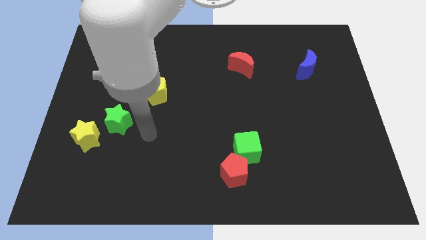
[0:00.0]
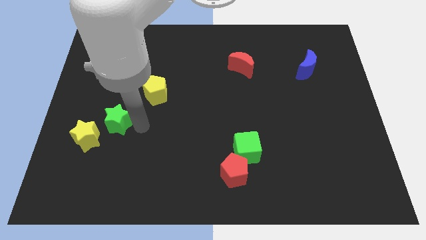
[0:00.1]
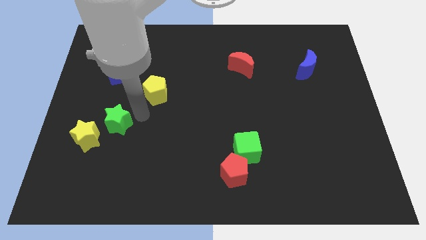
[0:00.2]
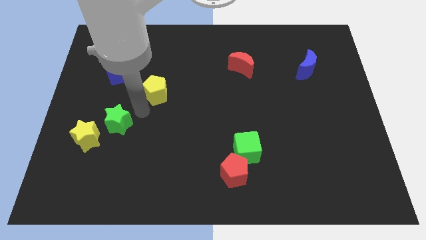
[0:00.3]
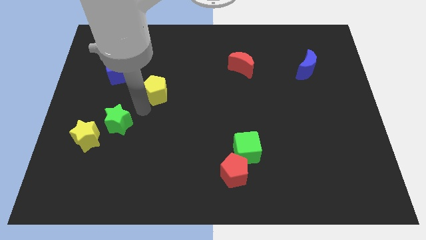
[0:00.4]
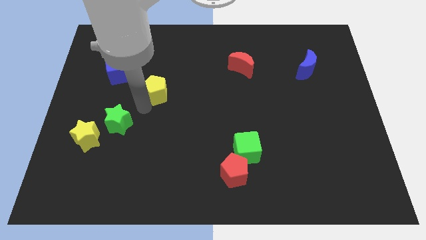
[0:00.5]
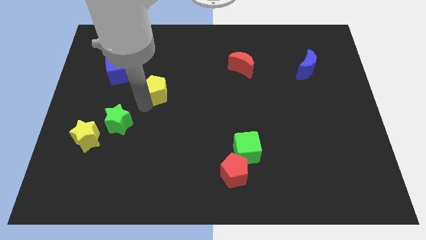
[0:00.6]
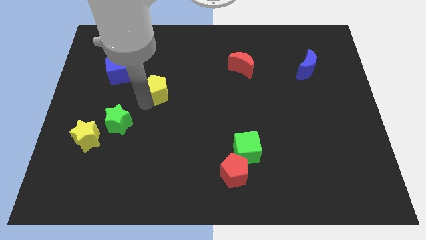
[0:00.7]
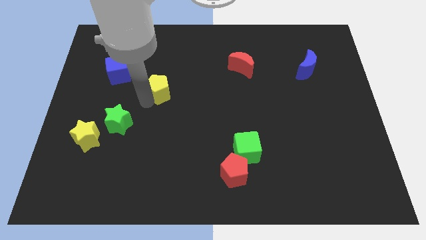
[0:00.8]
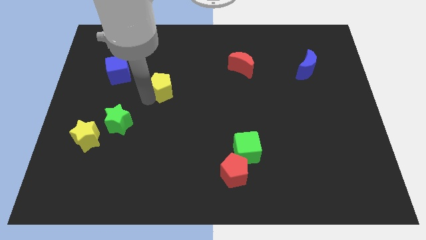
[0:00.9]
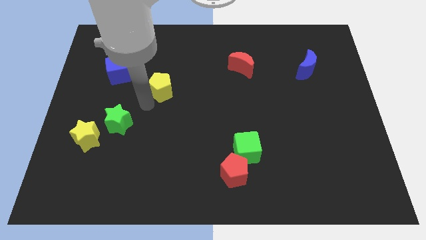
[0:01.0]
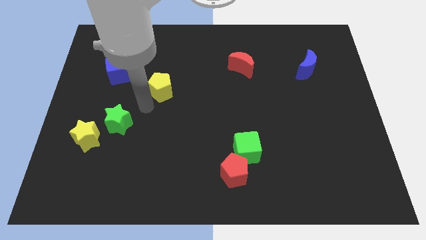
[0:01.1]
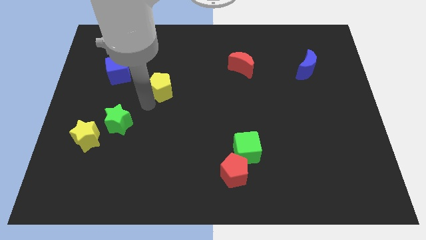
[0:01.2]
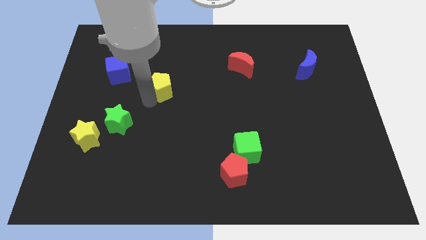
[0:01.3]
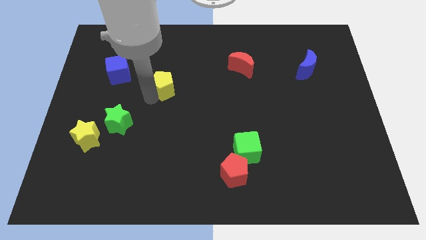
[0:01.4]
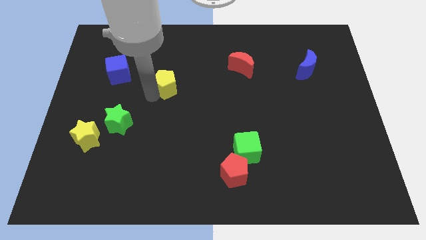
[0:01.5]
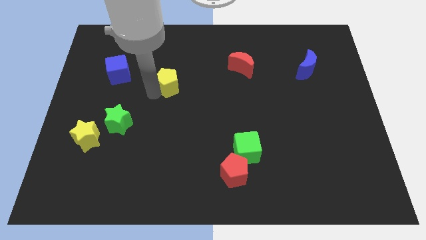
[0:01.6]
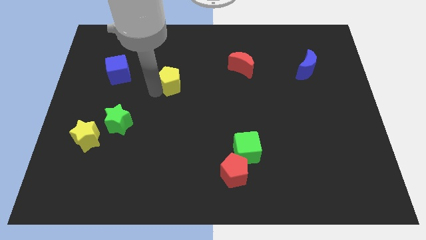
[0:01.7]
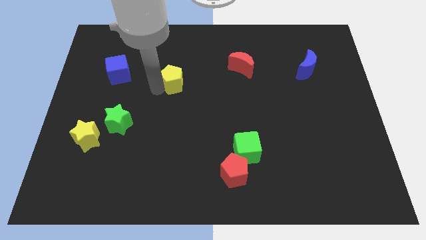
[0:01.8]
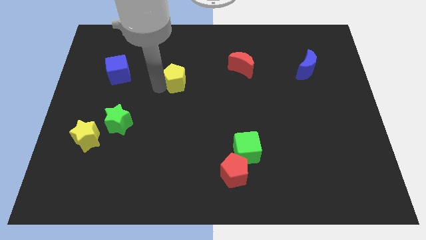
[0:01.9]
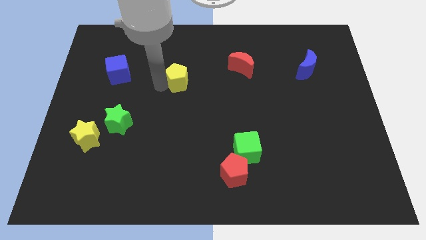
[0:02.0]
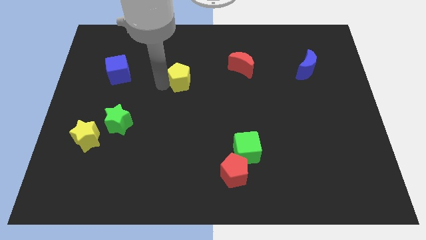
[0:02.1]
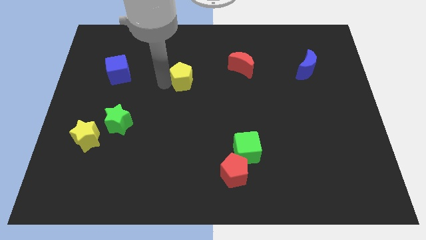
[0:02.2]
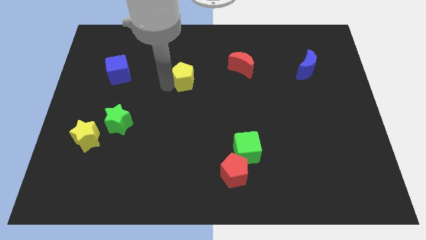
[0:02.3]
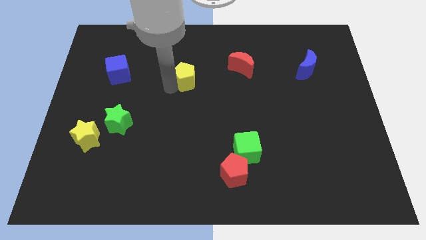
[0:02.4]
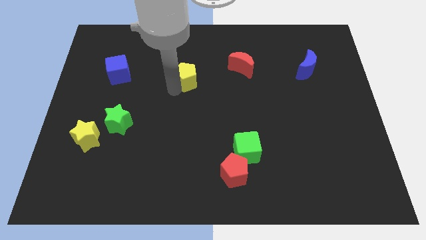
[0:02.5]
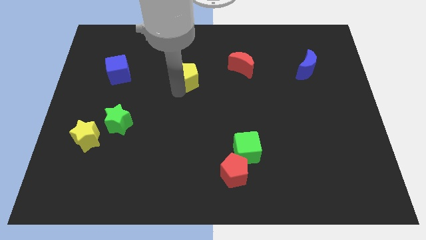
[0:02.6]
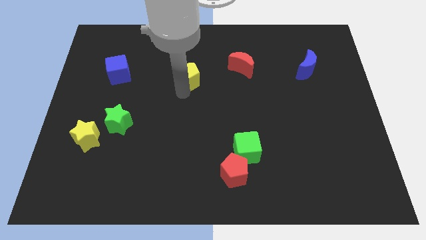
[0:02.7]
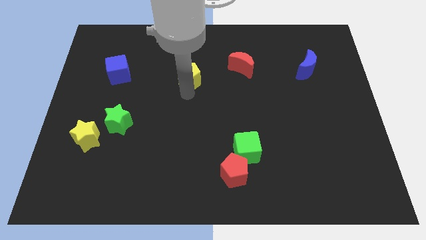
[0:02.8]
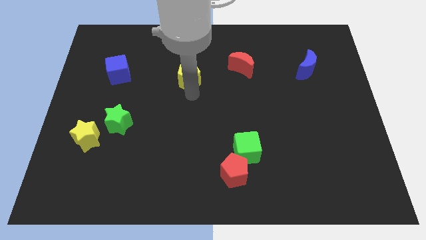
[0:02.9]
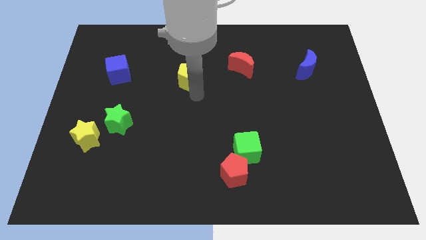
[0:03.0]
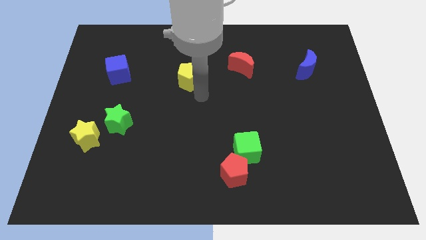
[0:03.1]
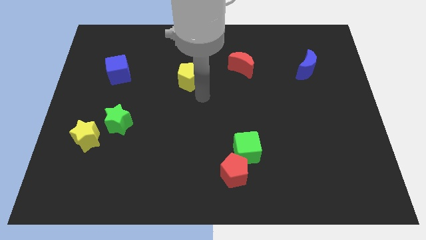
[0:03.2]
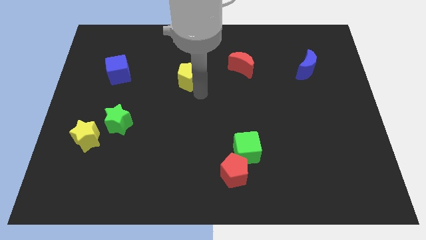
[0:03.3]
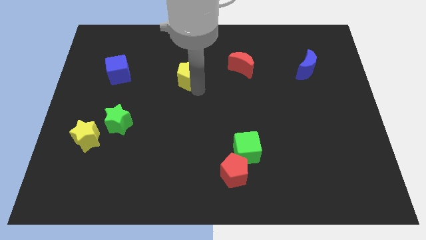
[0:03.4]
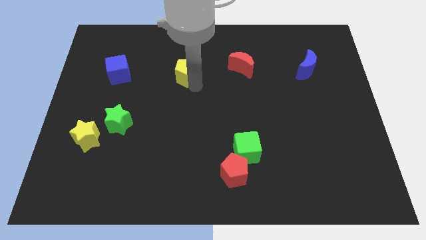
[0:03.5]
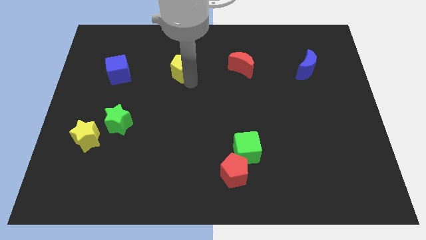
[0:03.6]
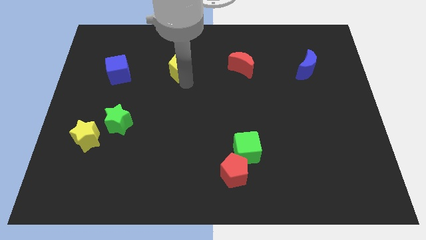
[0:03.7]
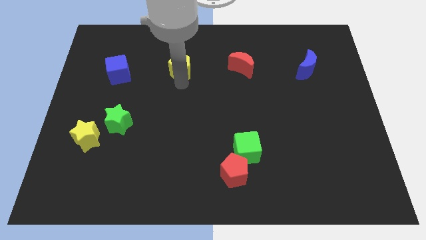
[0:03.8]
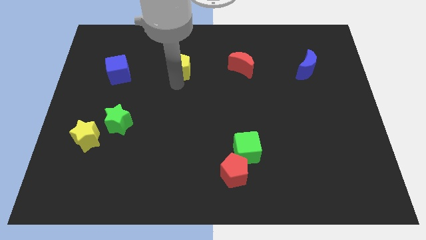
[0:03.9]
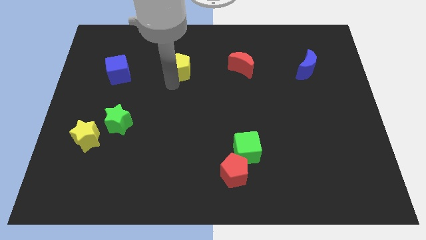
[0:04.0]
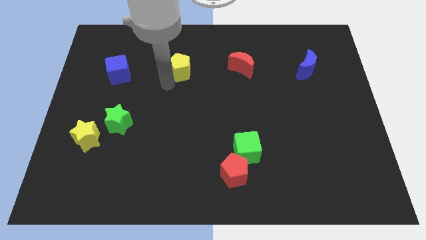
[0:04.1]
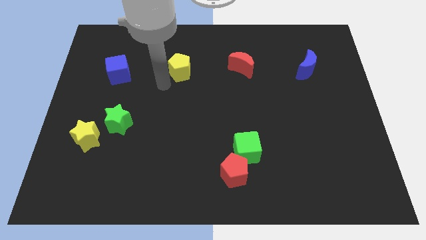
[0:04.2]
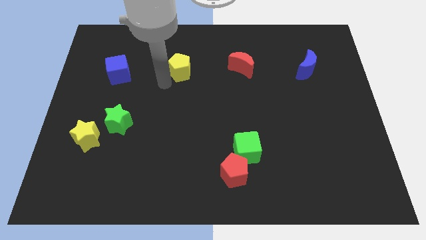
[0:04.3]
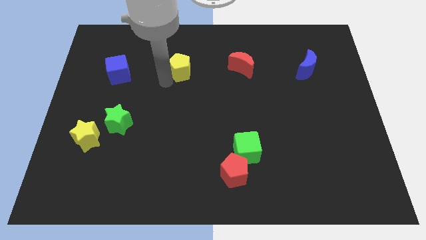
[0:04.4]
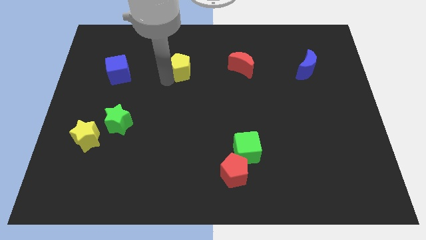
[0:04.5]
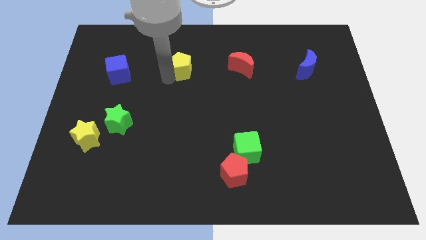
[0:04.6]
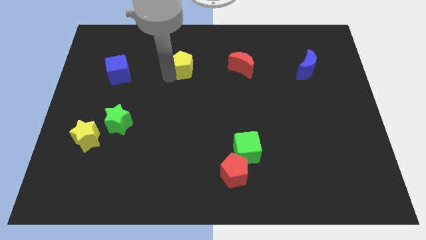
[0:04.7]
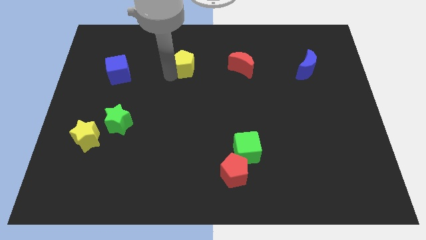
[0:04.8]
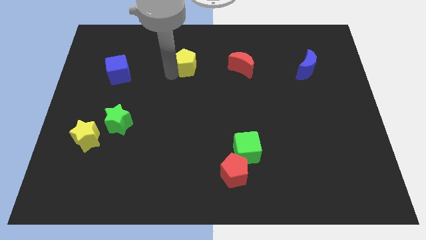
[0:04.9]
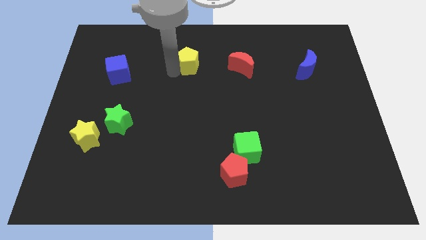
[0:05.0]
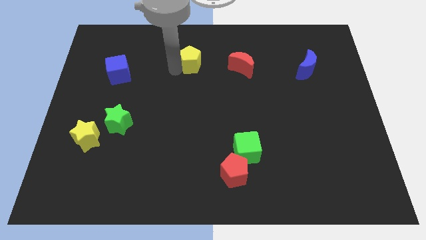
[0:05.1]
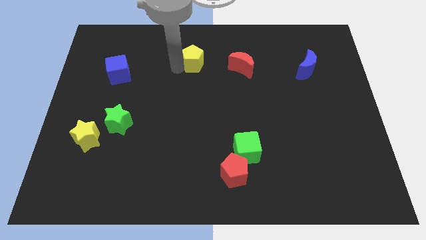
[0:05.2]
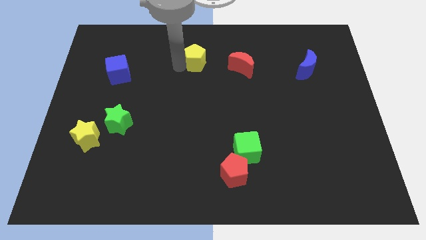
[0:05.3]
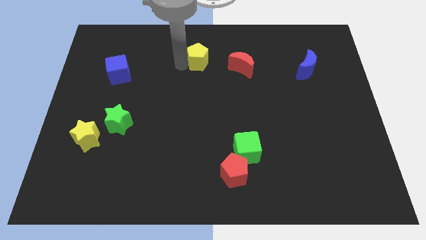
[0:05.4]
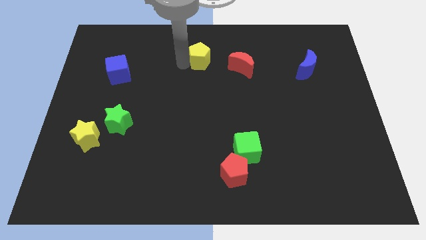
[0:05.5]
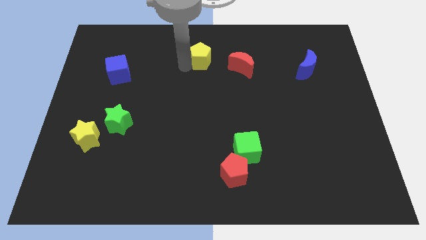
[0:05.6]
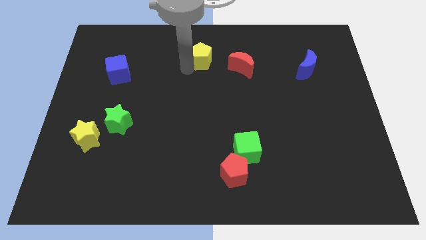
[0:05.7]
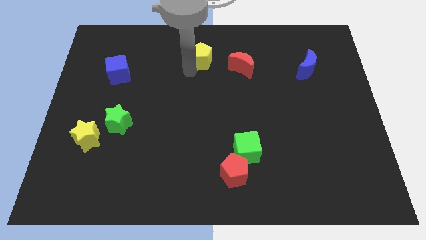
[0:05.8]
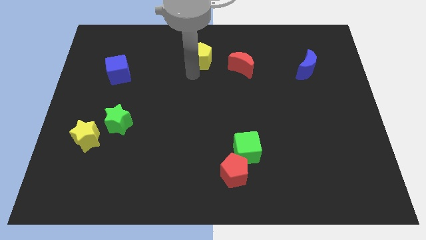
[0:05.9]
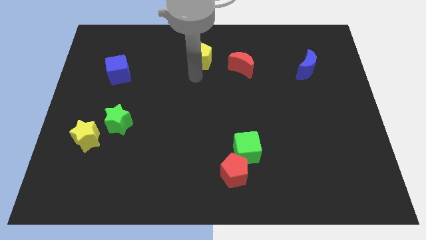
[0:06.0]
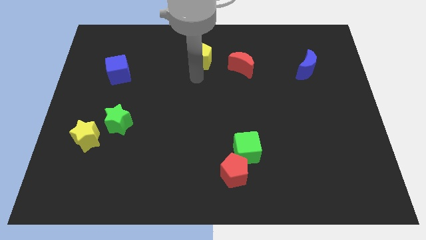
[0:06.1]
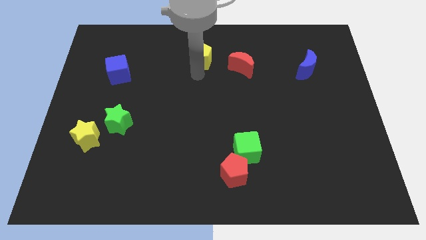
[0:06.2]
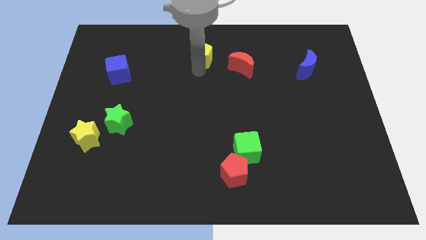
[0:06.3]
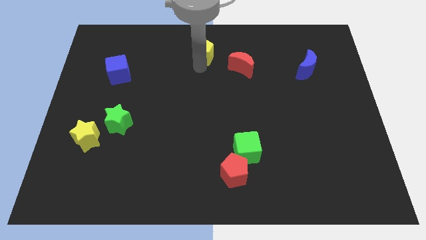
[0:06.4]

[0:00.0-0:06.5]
put the yellow pentagon to the towards your base
